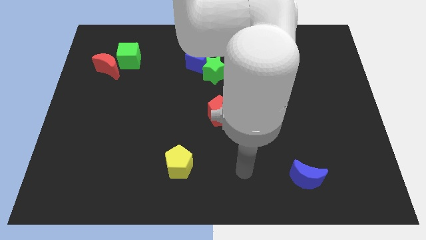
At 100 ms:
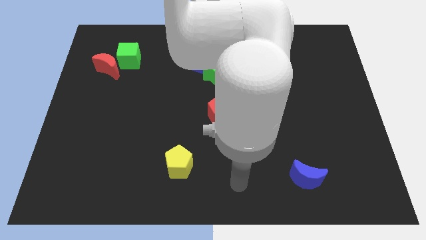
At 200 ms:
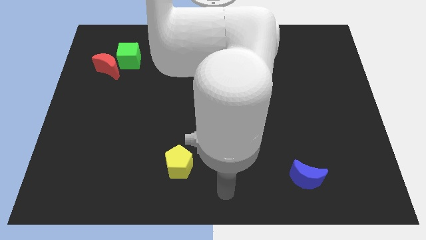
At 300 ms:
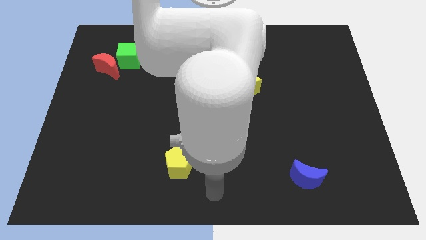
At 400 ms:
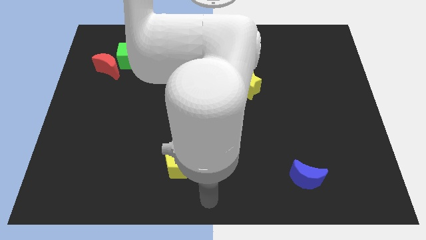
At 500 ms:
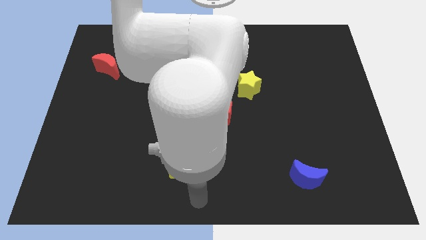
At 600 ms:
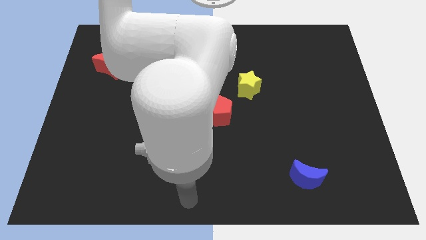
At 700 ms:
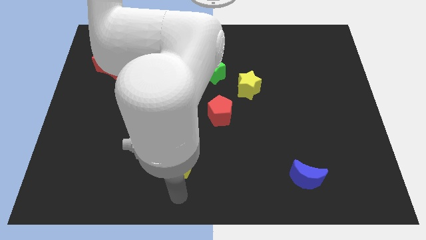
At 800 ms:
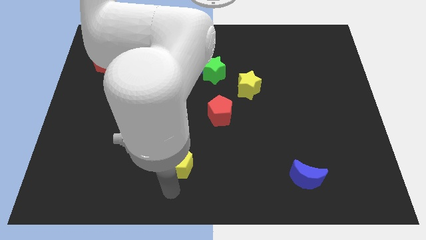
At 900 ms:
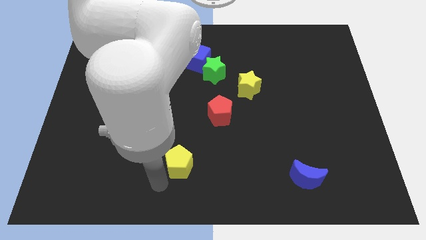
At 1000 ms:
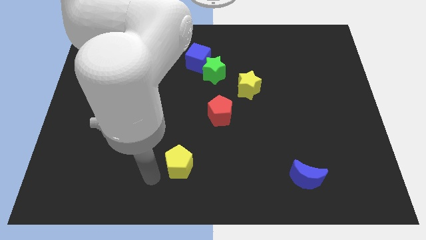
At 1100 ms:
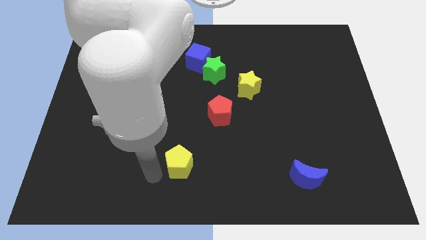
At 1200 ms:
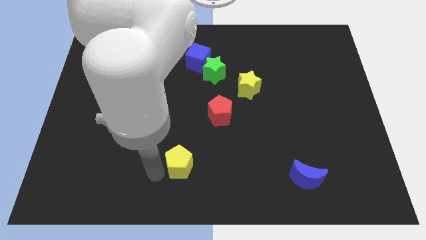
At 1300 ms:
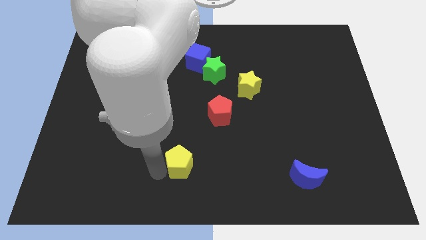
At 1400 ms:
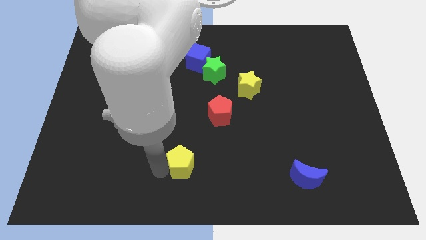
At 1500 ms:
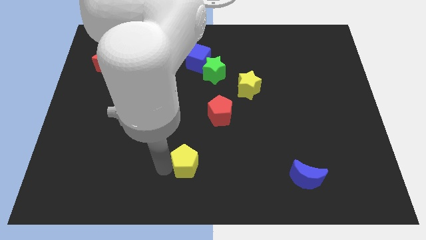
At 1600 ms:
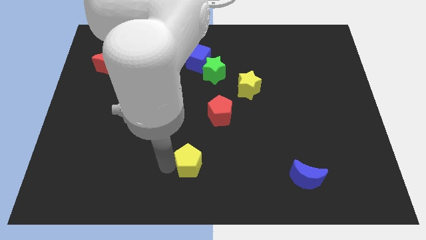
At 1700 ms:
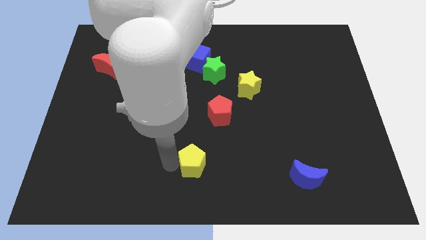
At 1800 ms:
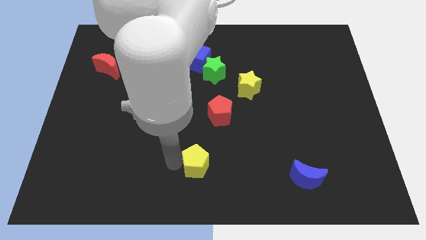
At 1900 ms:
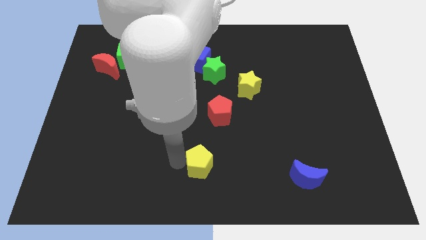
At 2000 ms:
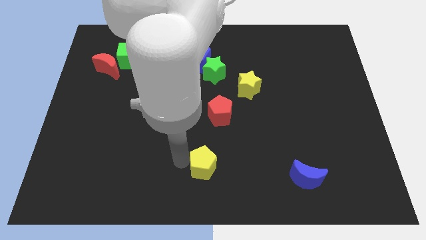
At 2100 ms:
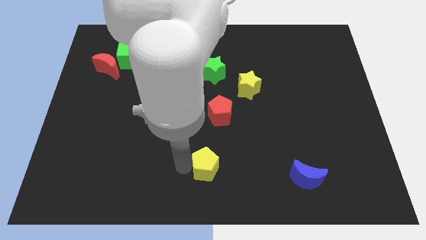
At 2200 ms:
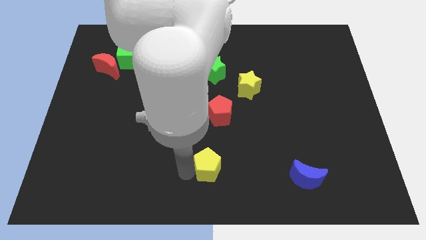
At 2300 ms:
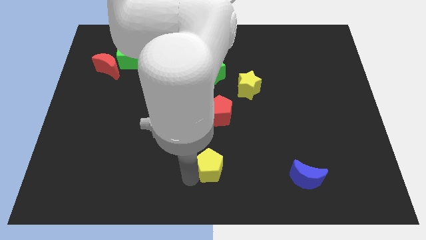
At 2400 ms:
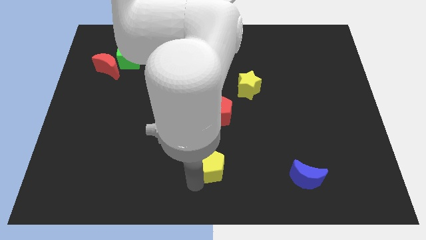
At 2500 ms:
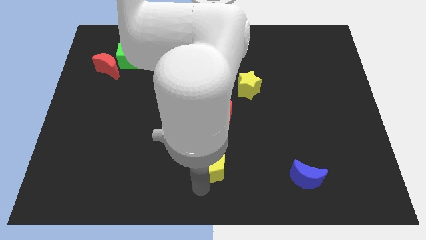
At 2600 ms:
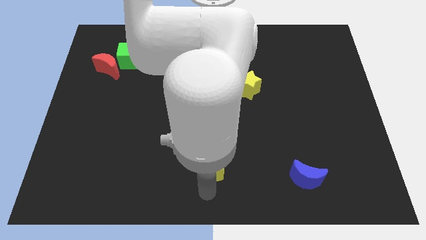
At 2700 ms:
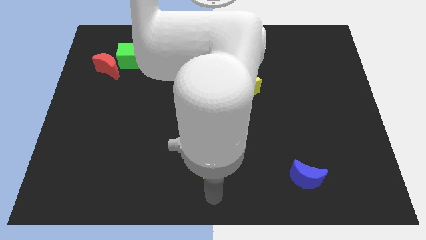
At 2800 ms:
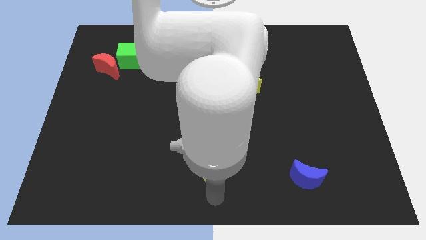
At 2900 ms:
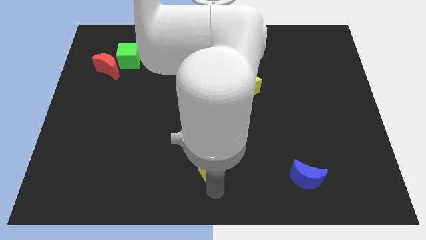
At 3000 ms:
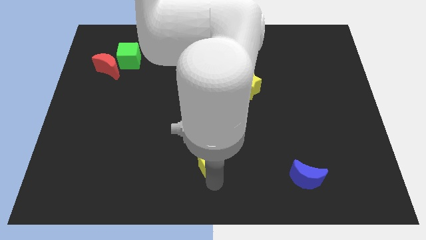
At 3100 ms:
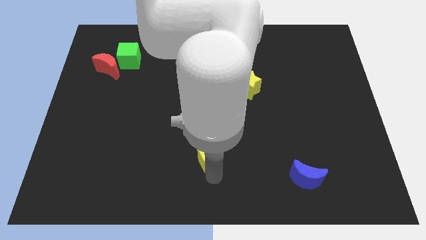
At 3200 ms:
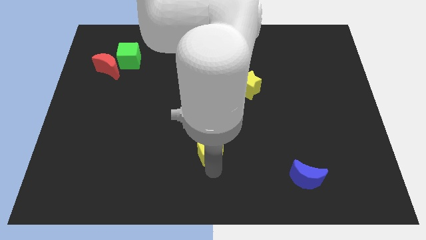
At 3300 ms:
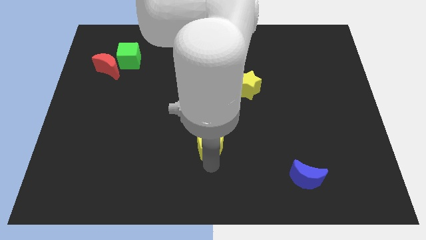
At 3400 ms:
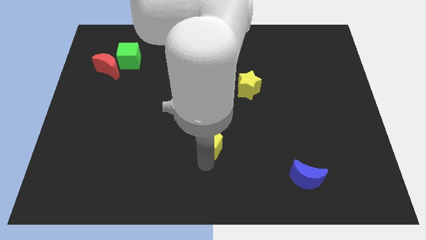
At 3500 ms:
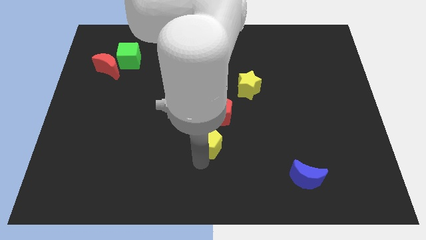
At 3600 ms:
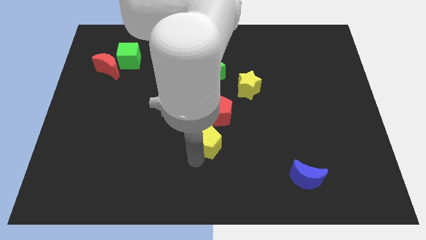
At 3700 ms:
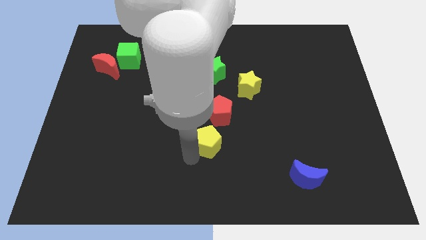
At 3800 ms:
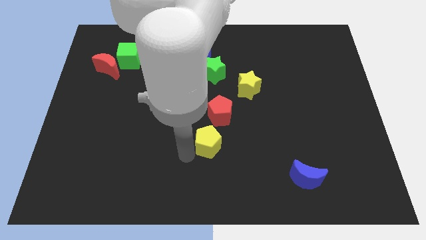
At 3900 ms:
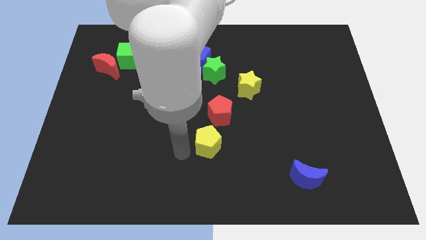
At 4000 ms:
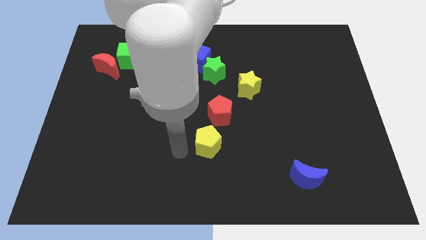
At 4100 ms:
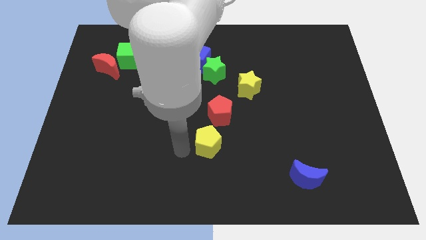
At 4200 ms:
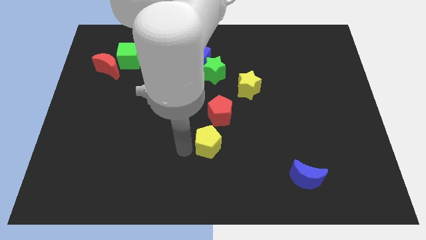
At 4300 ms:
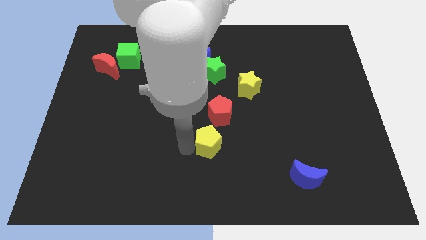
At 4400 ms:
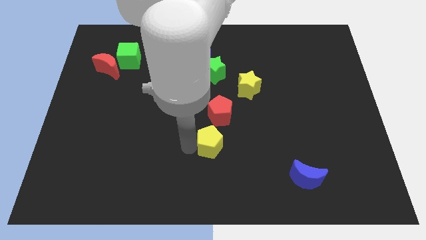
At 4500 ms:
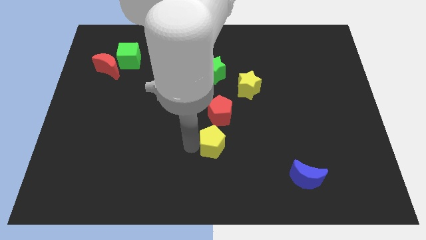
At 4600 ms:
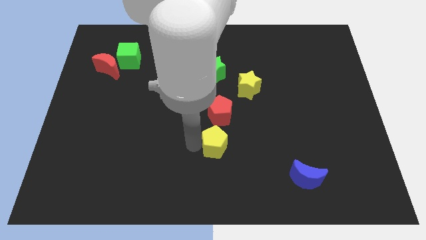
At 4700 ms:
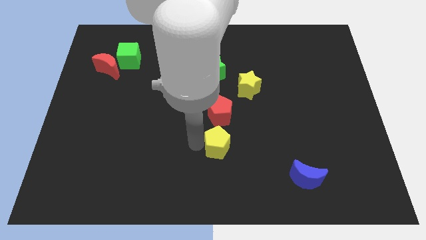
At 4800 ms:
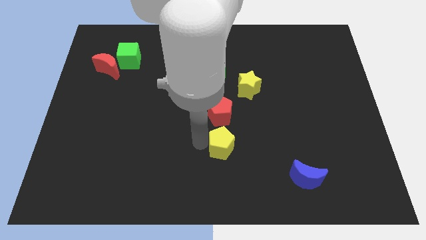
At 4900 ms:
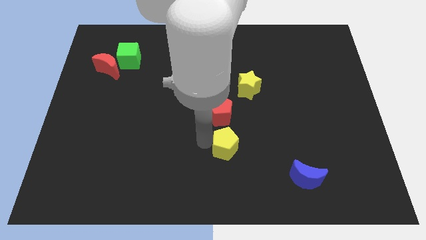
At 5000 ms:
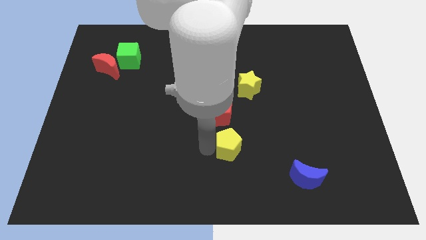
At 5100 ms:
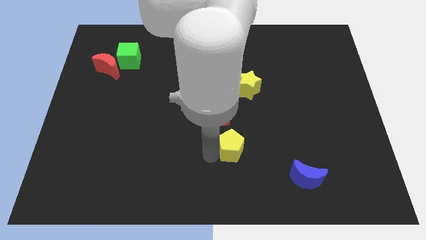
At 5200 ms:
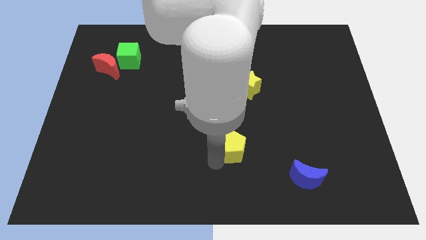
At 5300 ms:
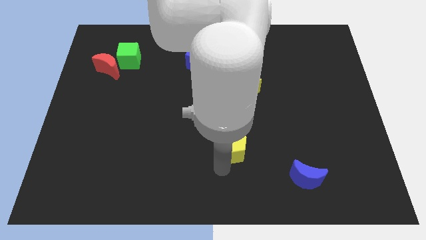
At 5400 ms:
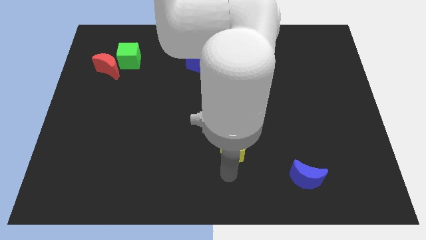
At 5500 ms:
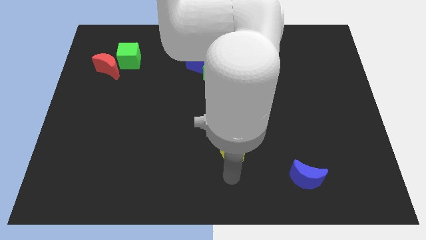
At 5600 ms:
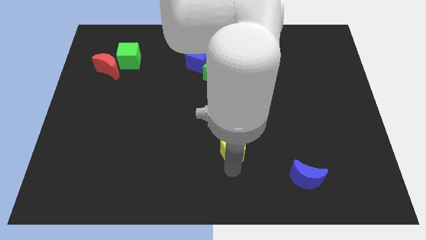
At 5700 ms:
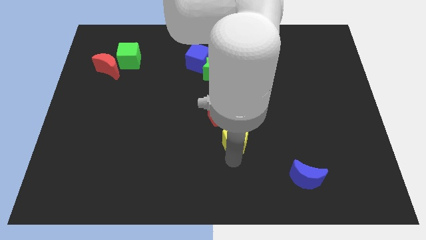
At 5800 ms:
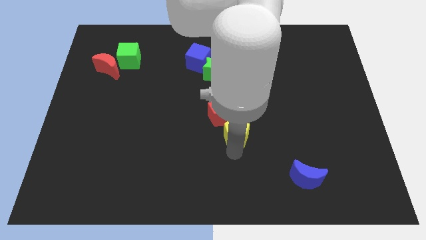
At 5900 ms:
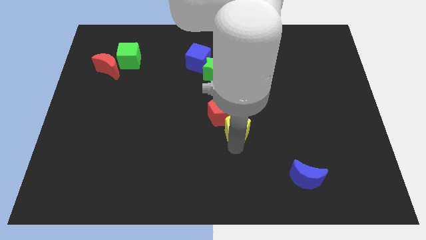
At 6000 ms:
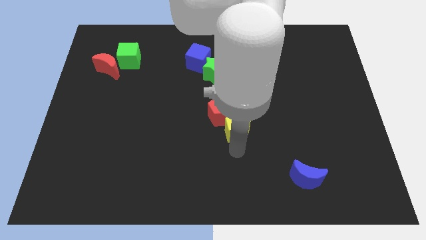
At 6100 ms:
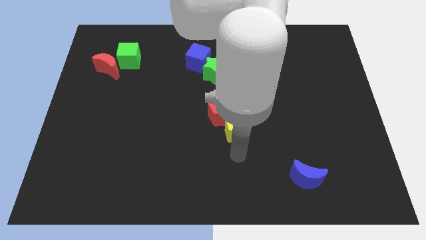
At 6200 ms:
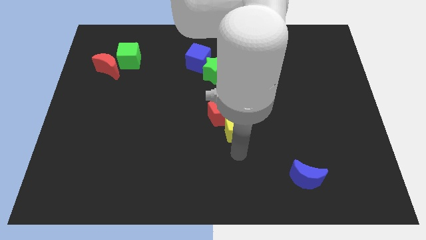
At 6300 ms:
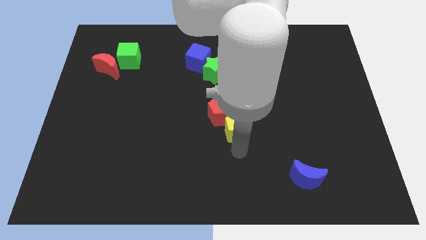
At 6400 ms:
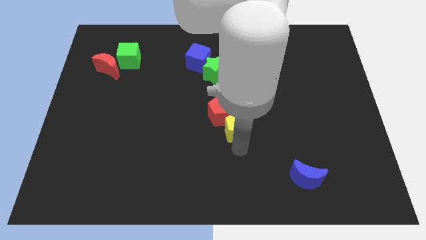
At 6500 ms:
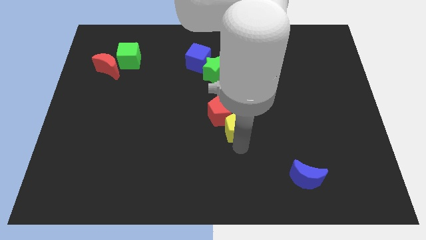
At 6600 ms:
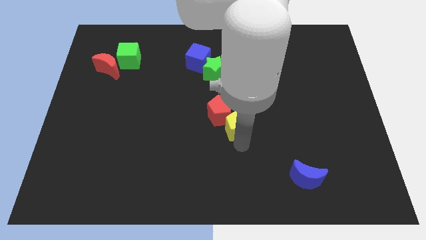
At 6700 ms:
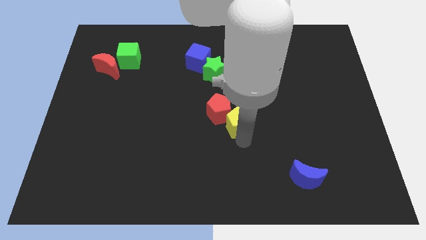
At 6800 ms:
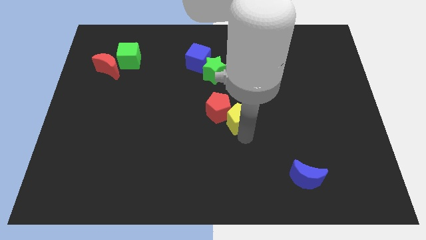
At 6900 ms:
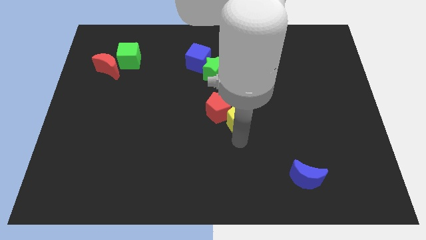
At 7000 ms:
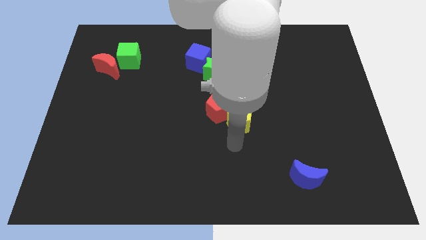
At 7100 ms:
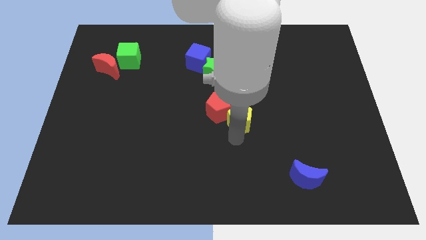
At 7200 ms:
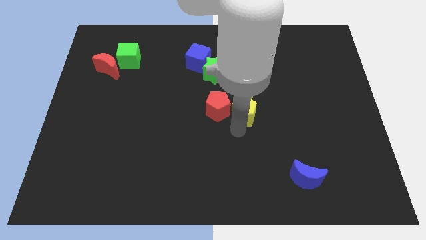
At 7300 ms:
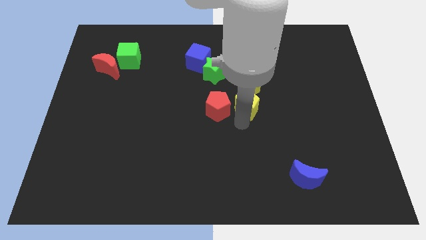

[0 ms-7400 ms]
move the yellow pentagon towards the yellow star
